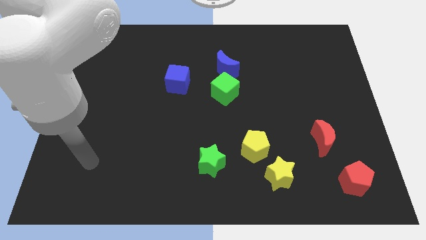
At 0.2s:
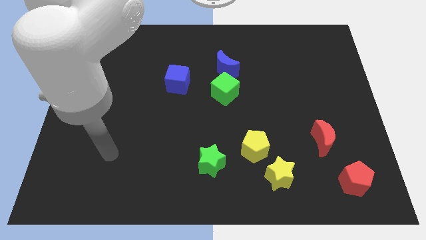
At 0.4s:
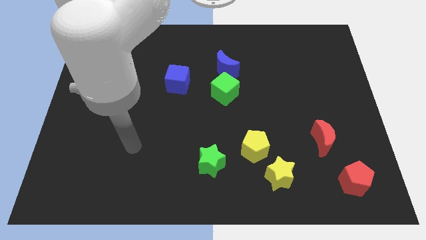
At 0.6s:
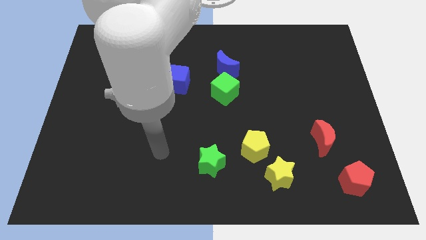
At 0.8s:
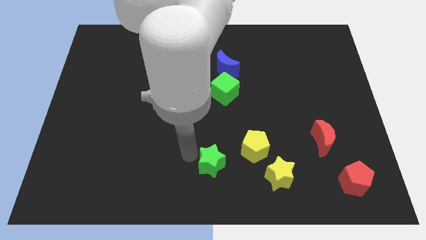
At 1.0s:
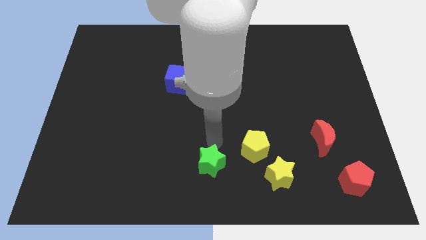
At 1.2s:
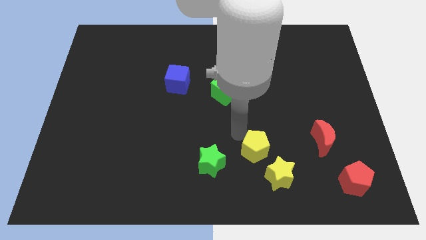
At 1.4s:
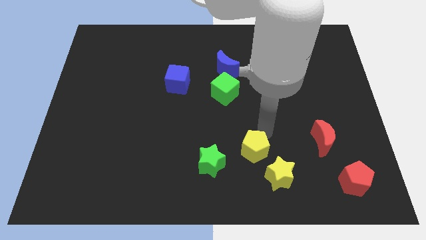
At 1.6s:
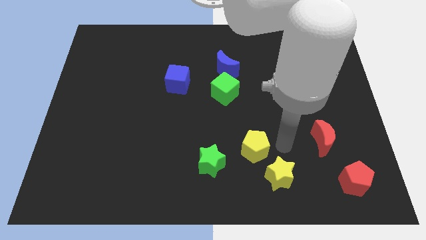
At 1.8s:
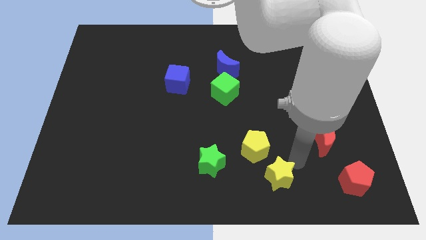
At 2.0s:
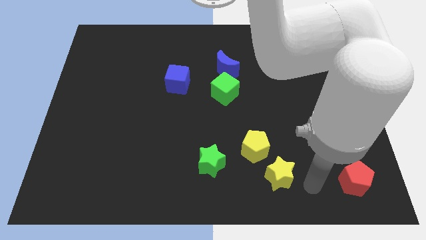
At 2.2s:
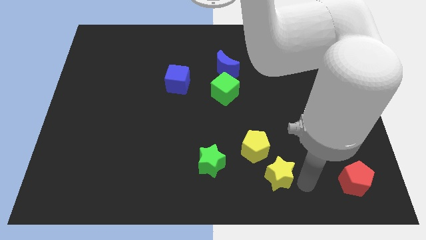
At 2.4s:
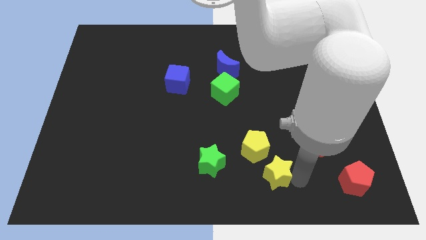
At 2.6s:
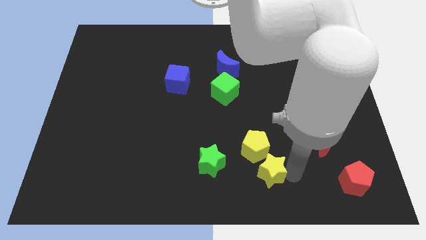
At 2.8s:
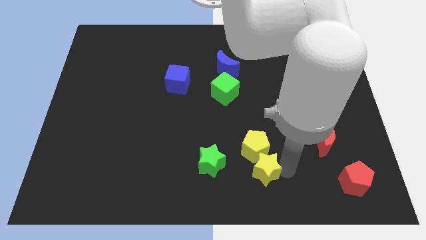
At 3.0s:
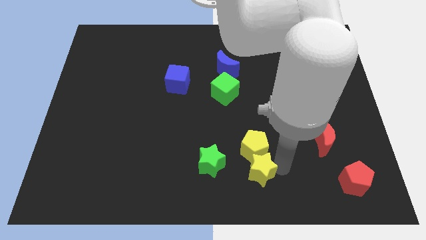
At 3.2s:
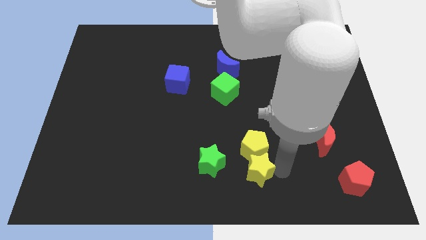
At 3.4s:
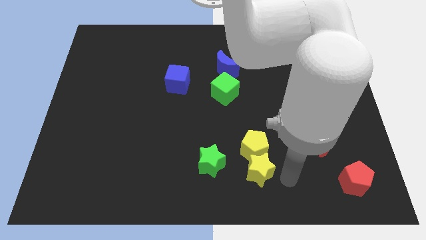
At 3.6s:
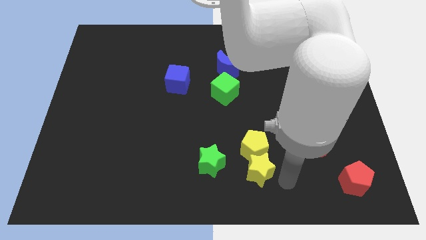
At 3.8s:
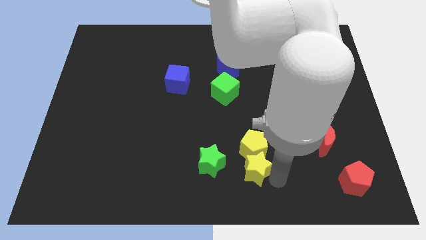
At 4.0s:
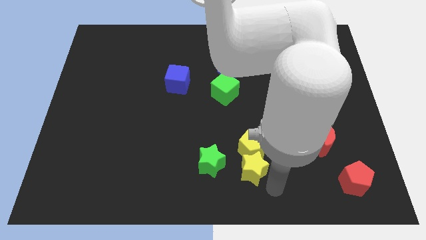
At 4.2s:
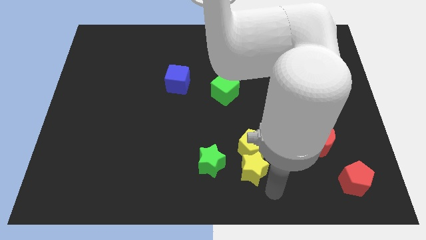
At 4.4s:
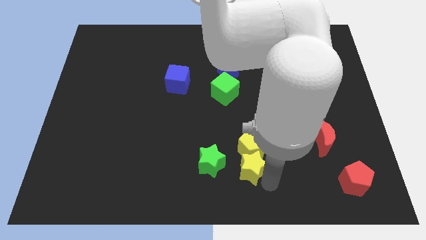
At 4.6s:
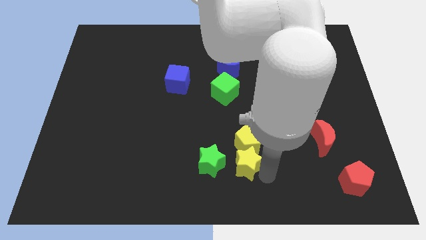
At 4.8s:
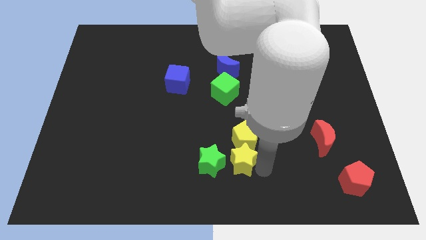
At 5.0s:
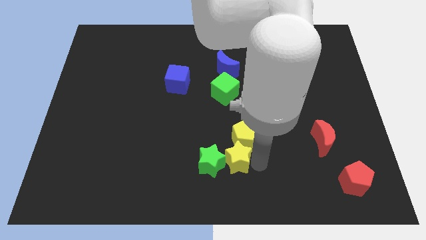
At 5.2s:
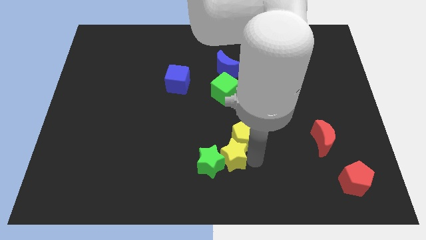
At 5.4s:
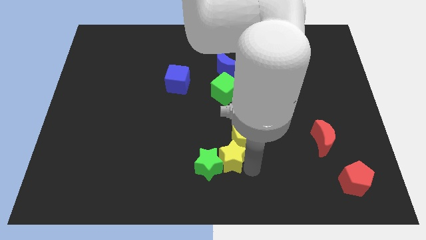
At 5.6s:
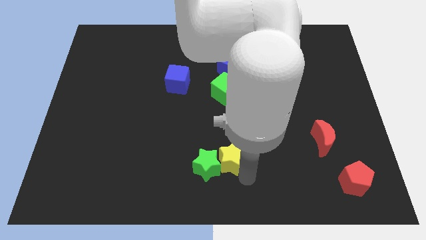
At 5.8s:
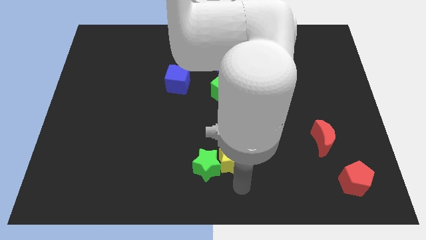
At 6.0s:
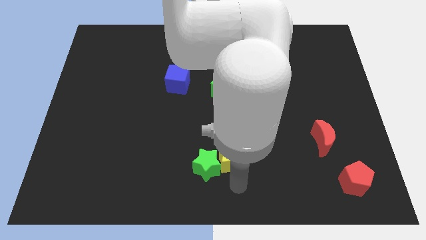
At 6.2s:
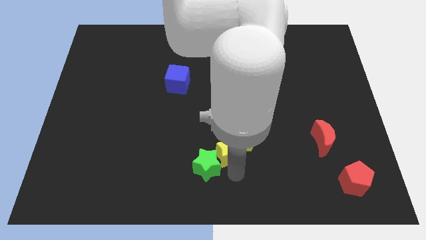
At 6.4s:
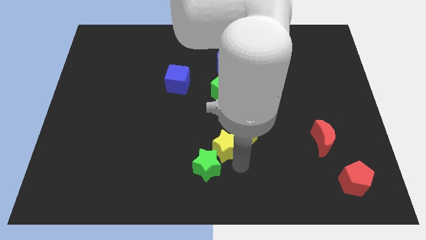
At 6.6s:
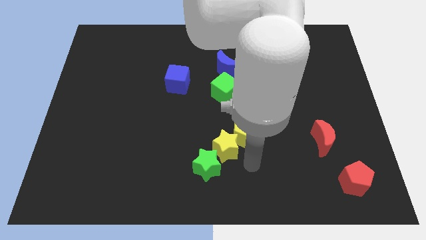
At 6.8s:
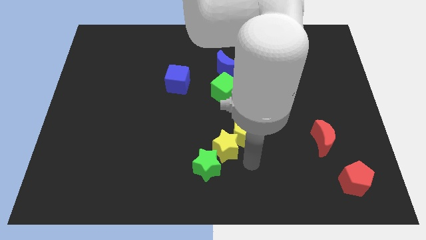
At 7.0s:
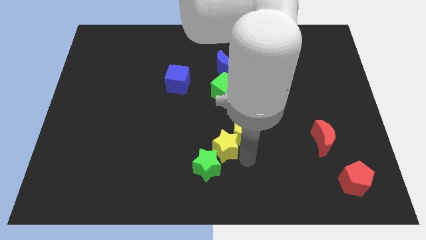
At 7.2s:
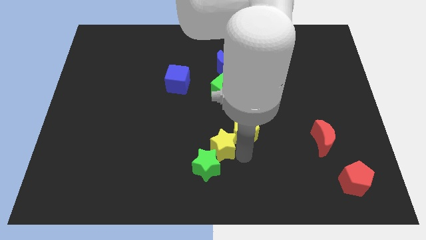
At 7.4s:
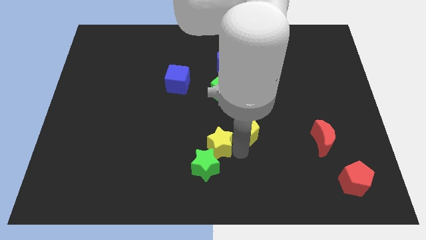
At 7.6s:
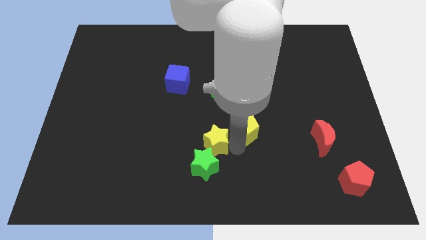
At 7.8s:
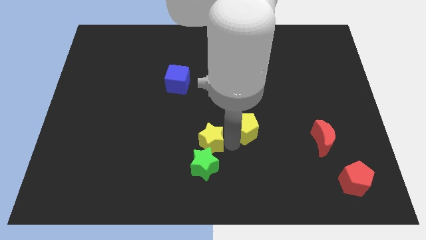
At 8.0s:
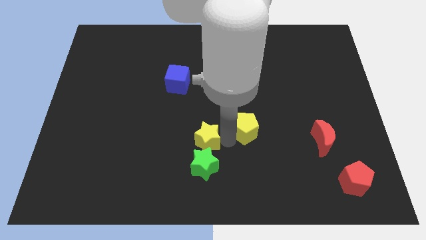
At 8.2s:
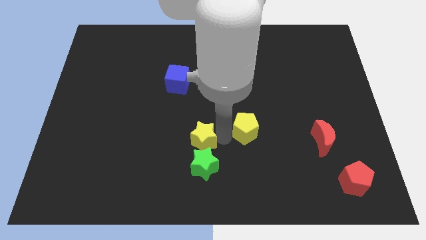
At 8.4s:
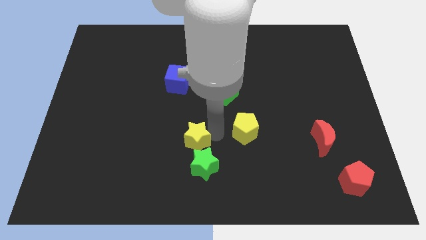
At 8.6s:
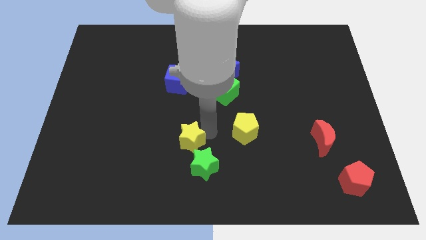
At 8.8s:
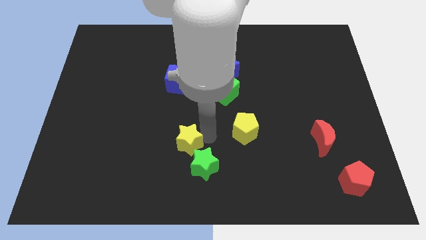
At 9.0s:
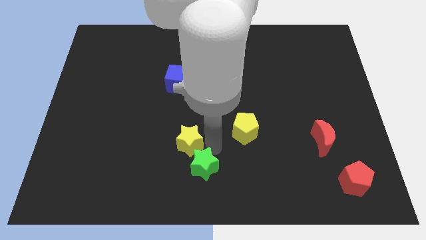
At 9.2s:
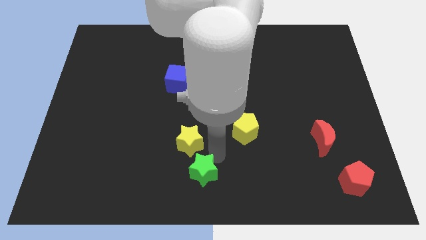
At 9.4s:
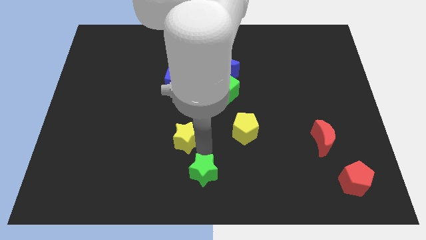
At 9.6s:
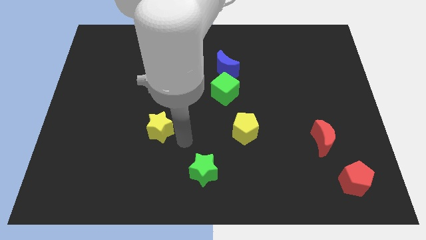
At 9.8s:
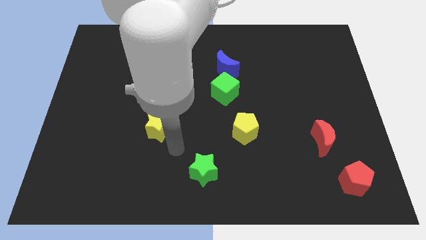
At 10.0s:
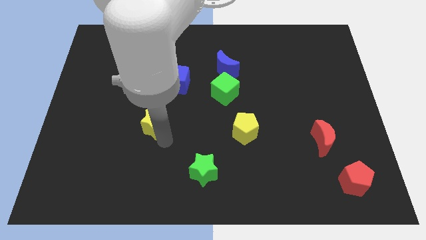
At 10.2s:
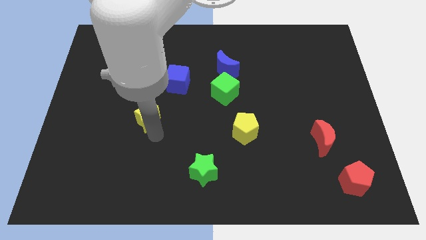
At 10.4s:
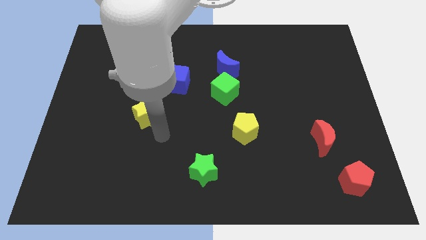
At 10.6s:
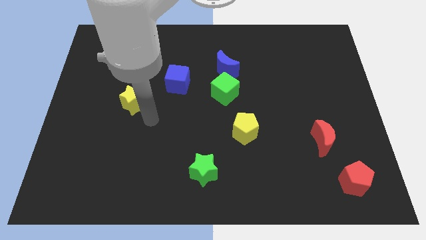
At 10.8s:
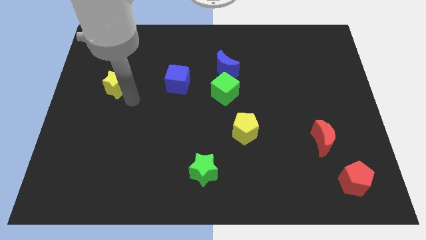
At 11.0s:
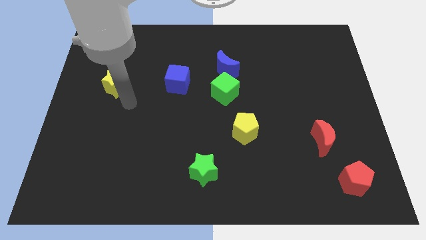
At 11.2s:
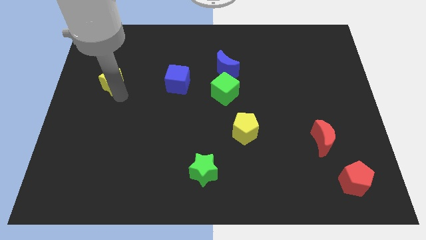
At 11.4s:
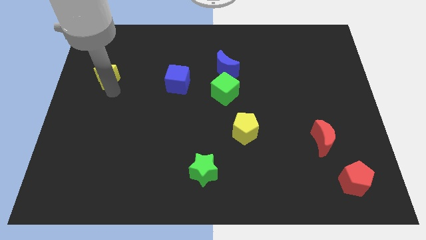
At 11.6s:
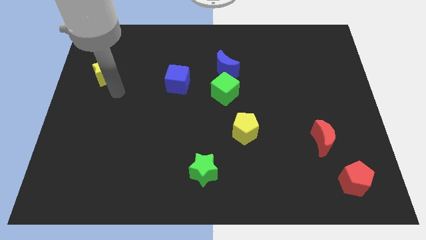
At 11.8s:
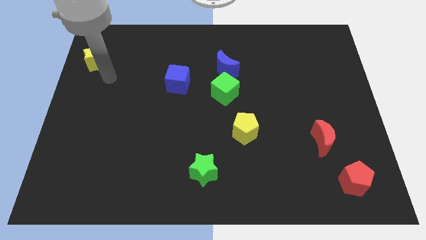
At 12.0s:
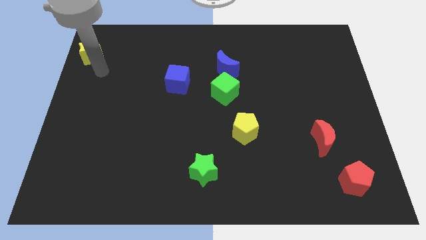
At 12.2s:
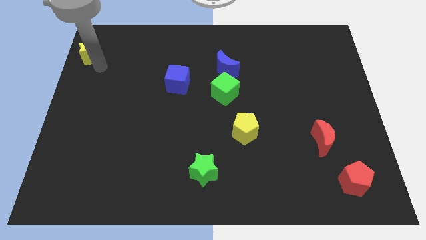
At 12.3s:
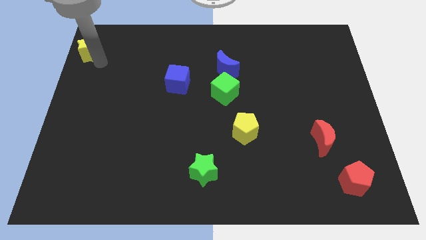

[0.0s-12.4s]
put the yellow star to the top left of the board
